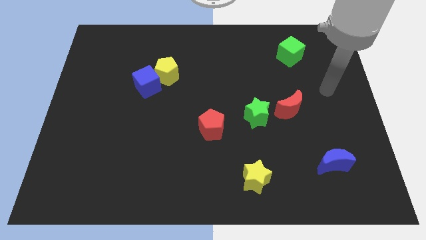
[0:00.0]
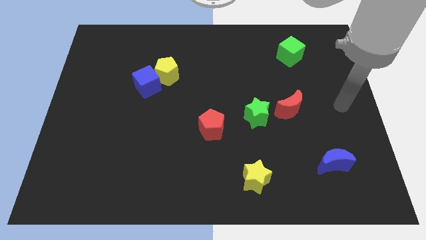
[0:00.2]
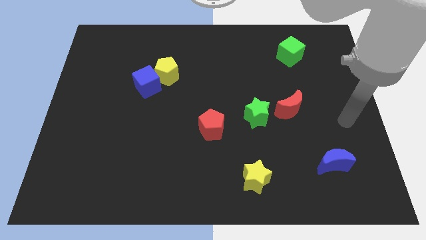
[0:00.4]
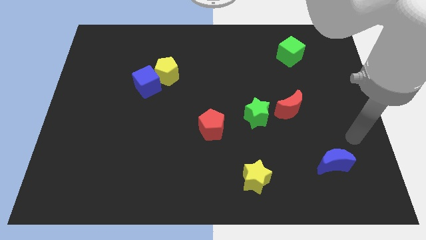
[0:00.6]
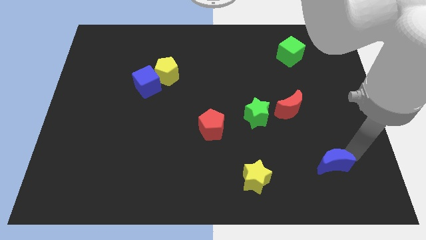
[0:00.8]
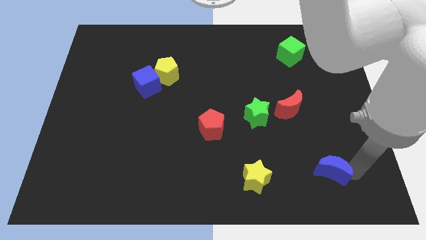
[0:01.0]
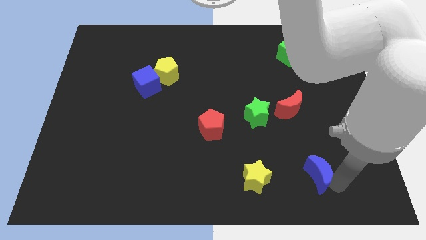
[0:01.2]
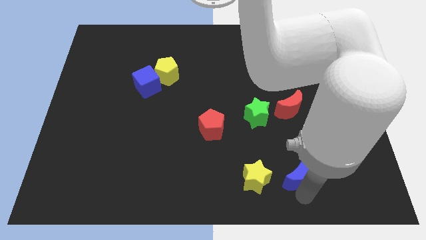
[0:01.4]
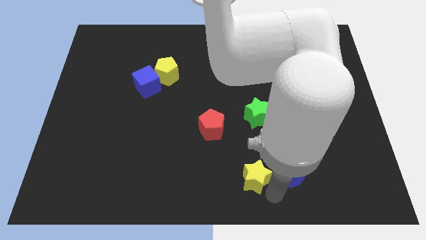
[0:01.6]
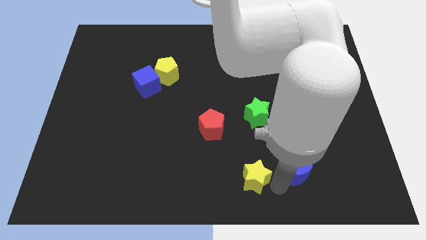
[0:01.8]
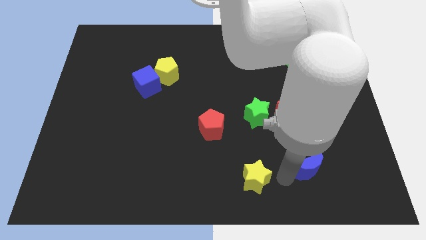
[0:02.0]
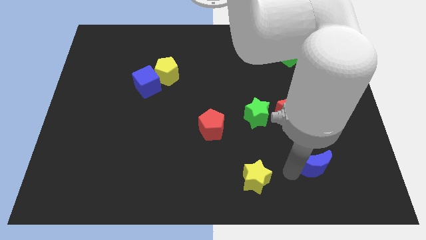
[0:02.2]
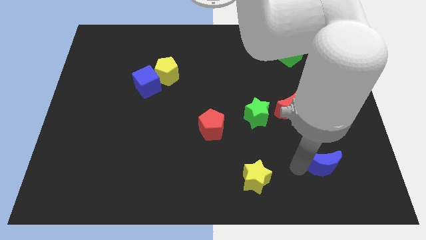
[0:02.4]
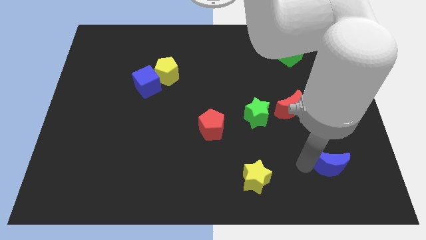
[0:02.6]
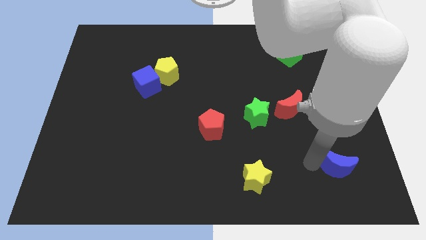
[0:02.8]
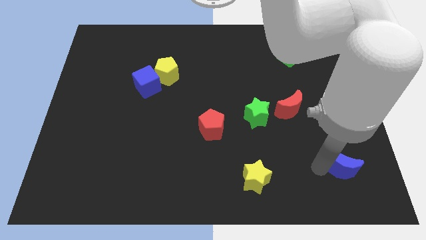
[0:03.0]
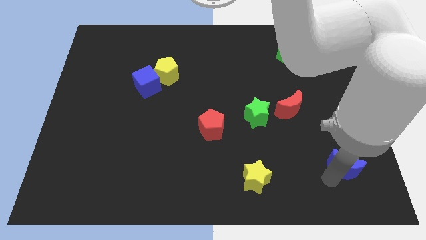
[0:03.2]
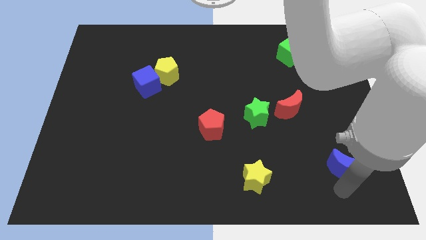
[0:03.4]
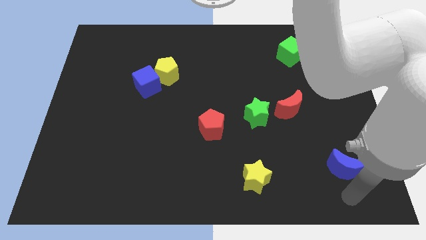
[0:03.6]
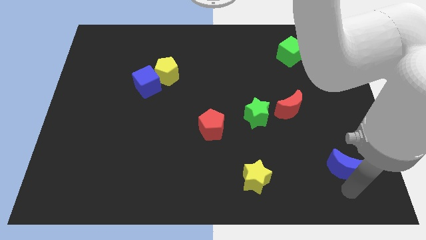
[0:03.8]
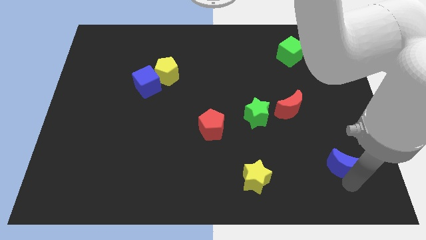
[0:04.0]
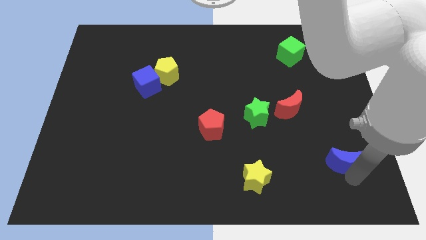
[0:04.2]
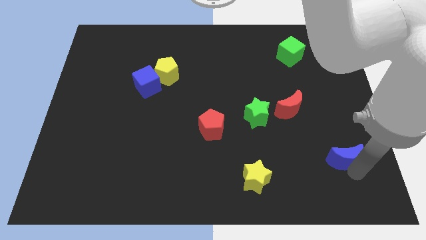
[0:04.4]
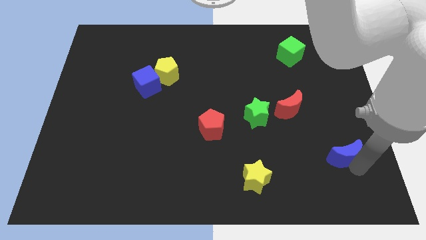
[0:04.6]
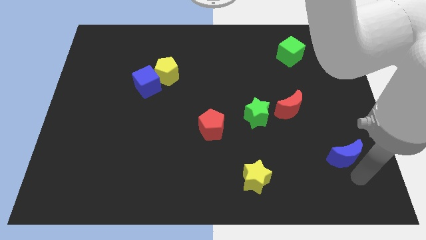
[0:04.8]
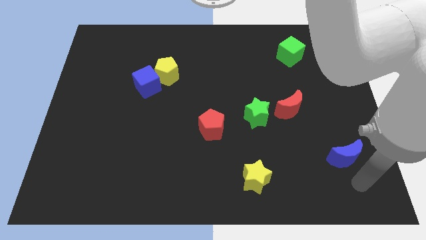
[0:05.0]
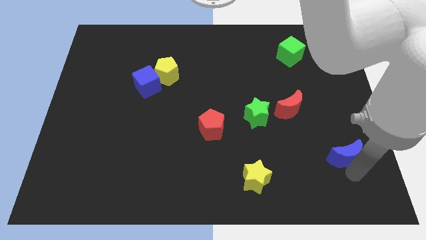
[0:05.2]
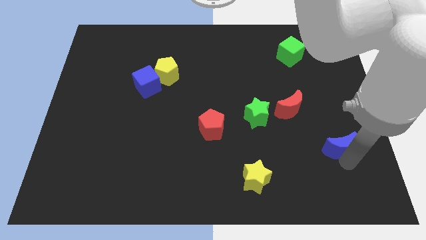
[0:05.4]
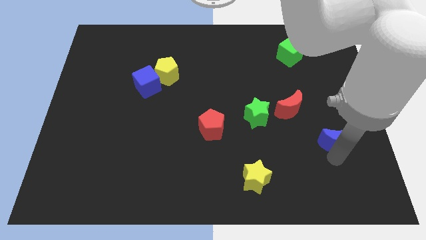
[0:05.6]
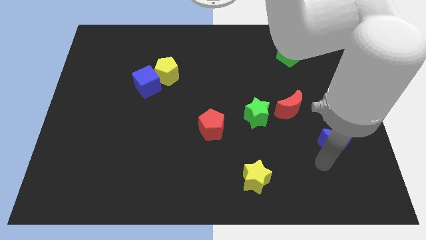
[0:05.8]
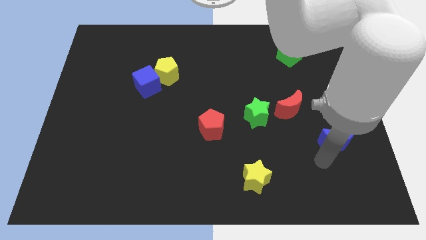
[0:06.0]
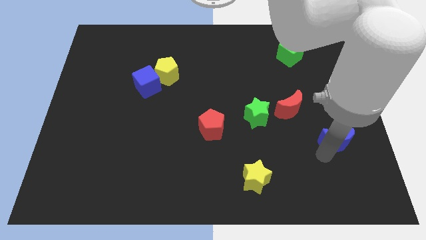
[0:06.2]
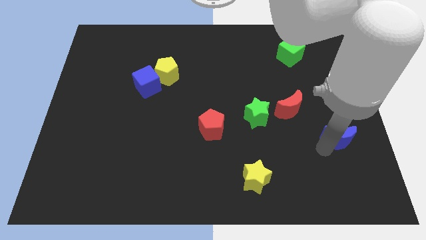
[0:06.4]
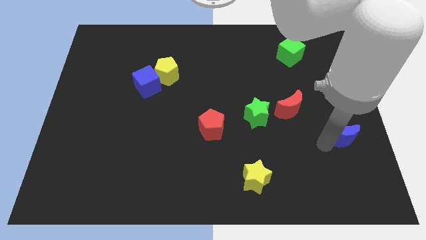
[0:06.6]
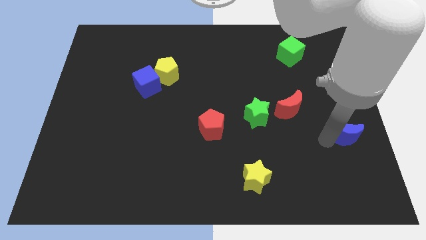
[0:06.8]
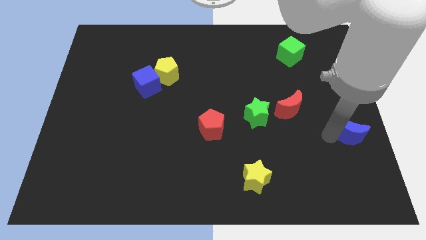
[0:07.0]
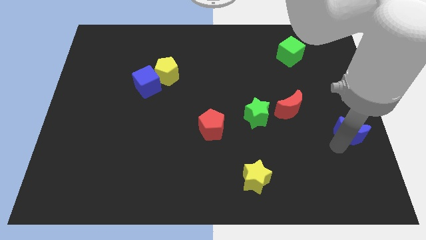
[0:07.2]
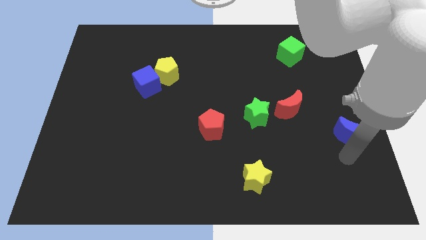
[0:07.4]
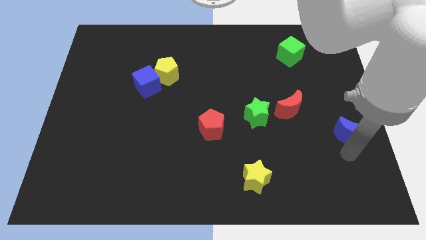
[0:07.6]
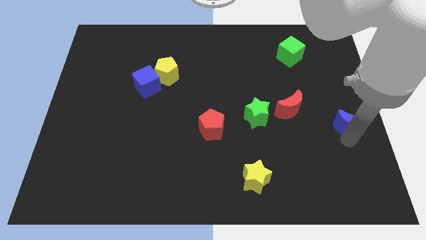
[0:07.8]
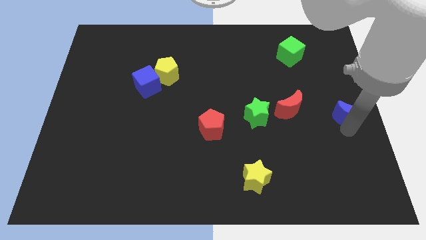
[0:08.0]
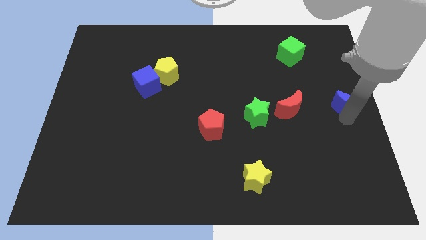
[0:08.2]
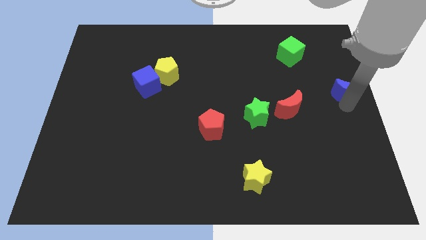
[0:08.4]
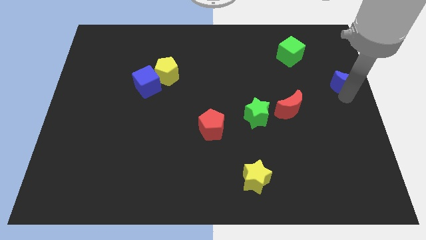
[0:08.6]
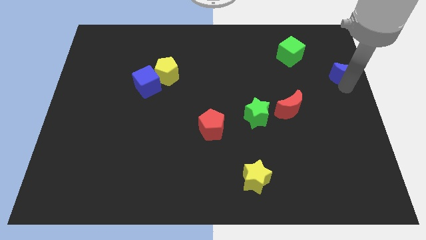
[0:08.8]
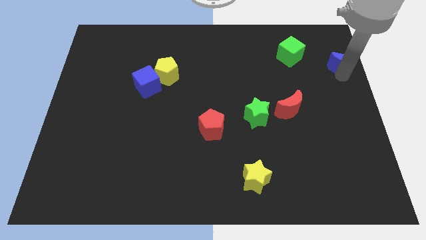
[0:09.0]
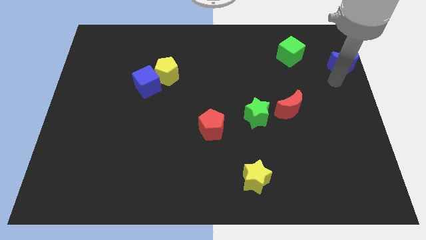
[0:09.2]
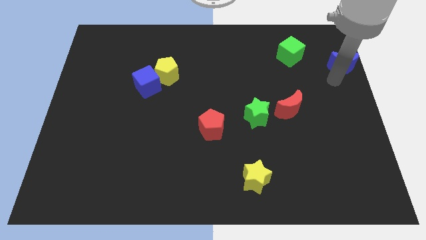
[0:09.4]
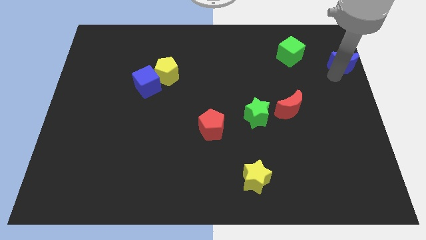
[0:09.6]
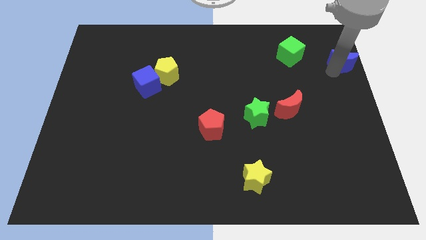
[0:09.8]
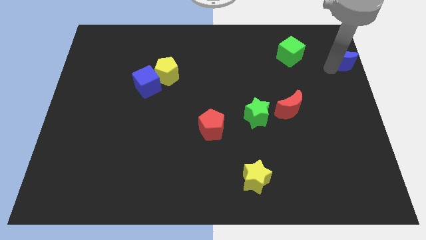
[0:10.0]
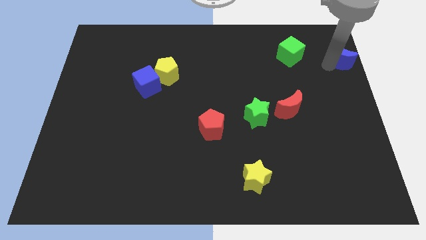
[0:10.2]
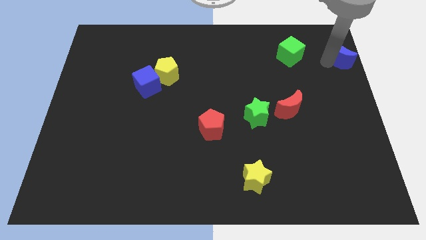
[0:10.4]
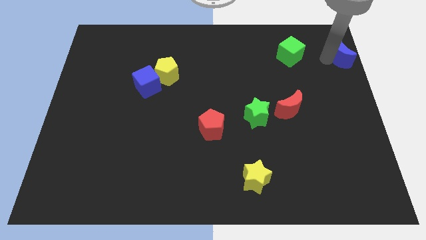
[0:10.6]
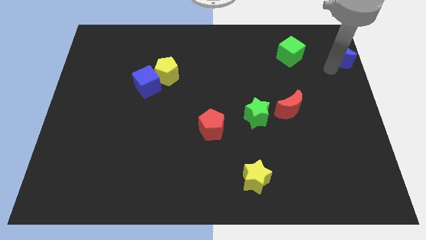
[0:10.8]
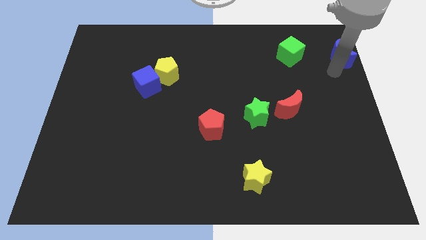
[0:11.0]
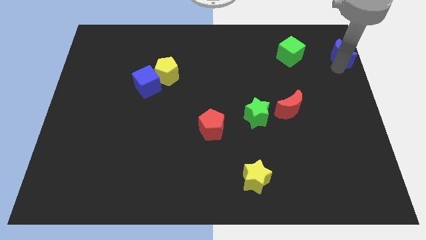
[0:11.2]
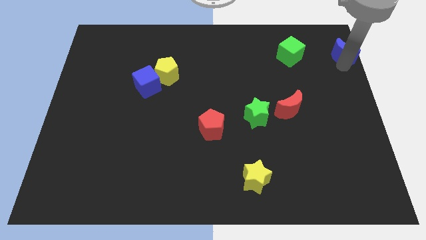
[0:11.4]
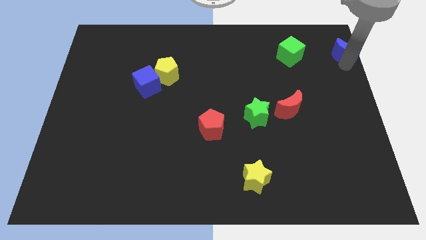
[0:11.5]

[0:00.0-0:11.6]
push the blue moon to the top right corner
